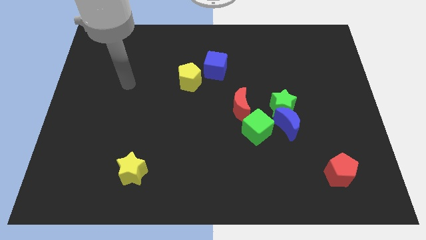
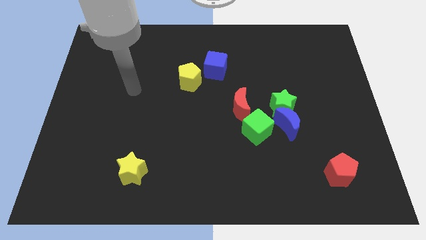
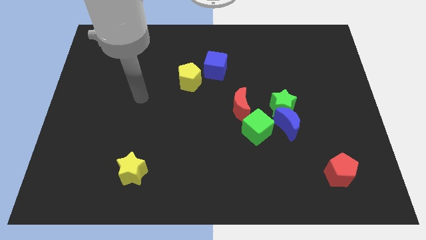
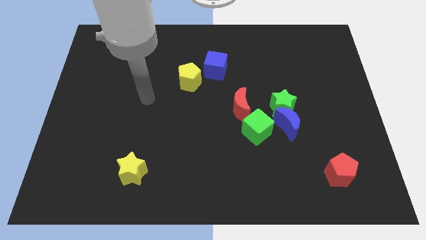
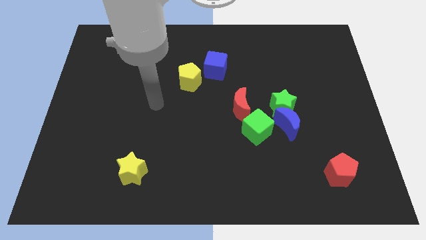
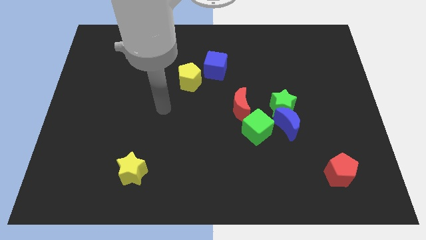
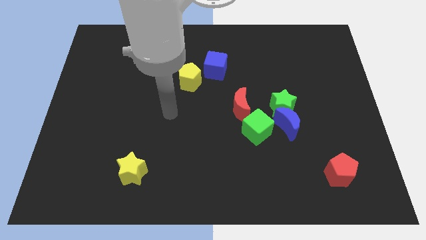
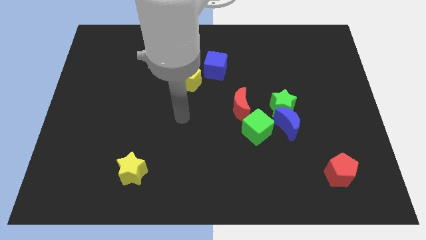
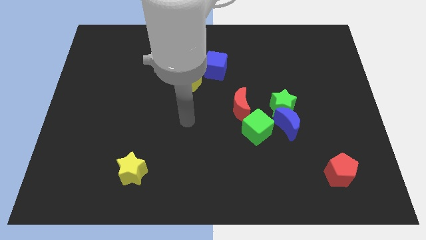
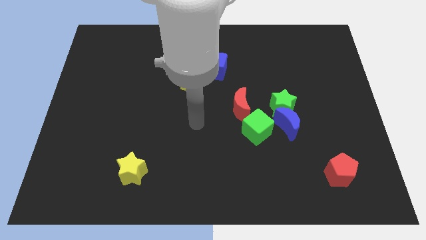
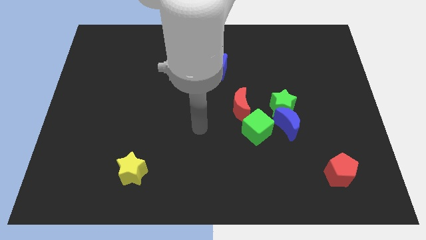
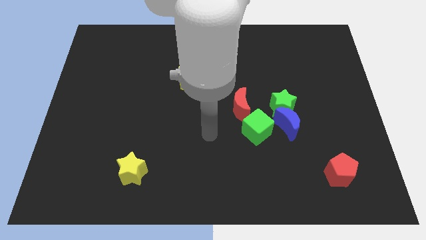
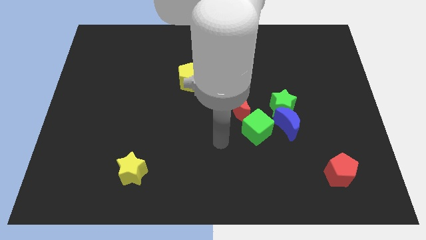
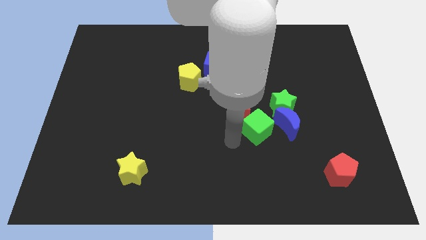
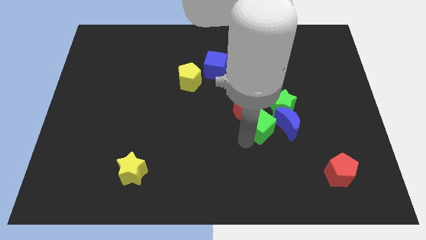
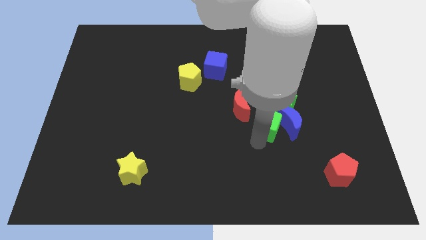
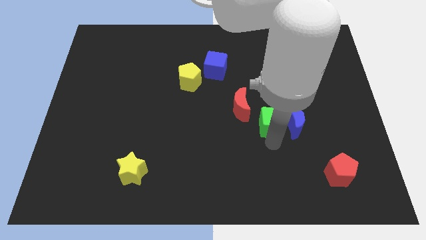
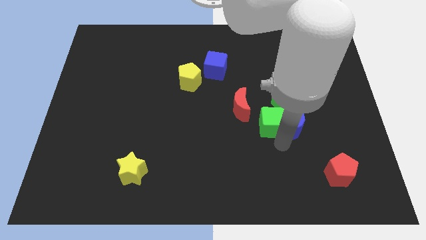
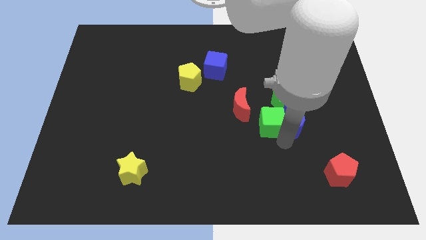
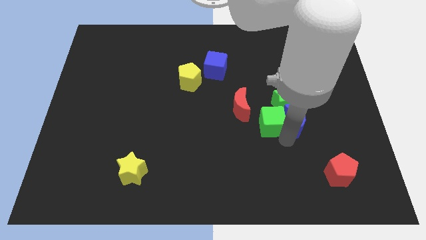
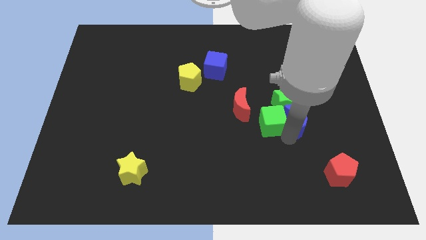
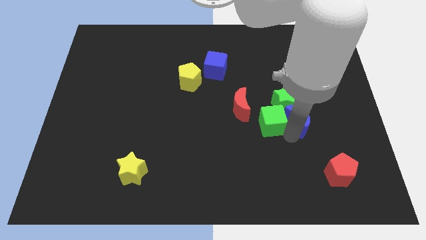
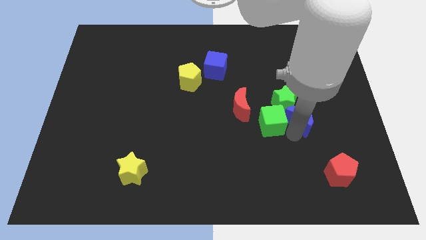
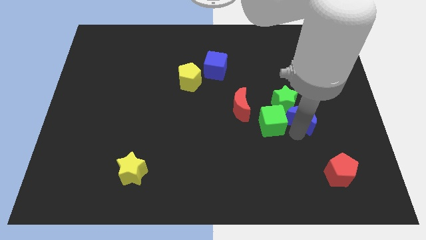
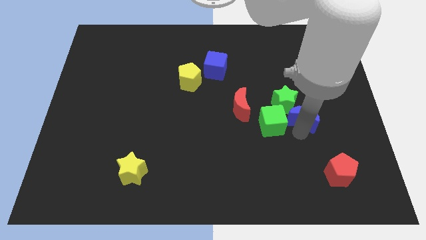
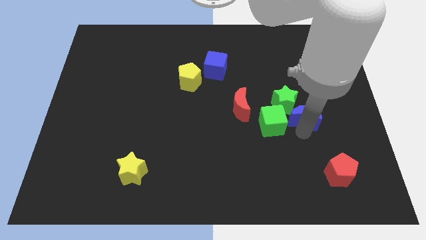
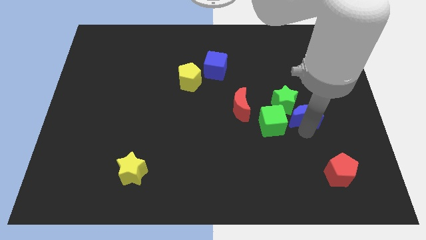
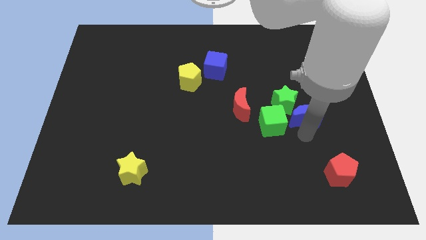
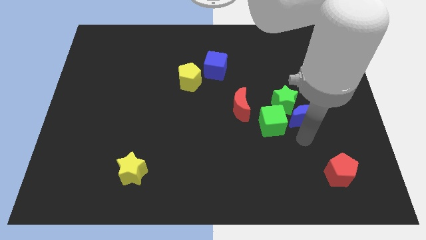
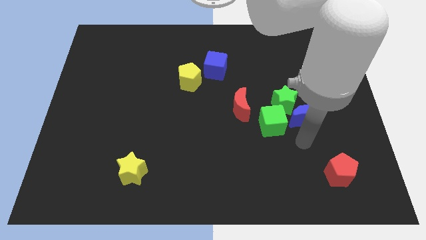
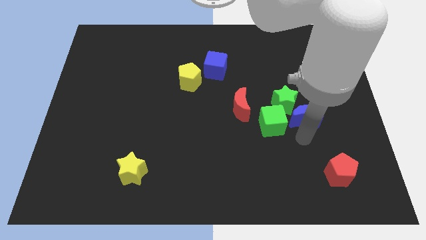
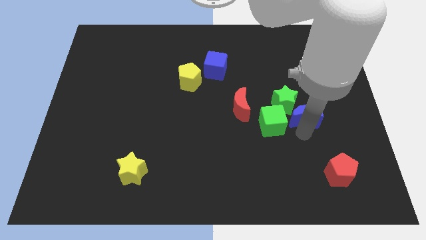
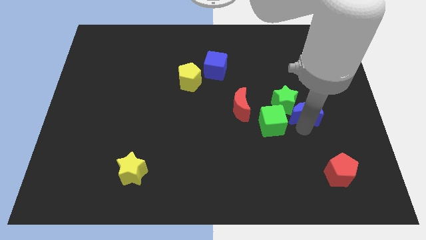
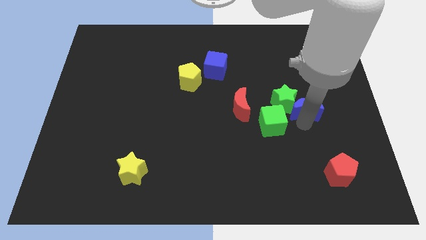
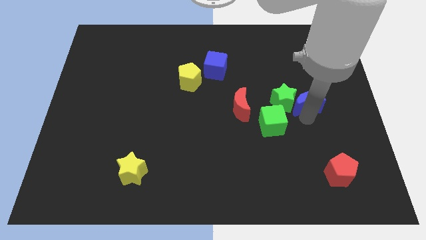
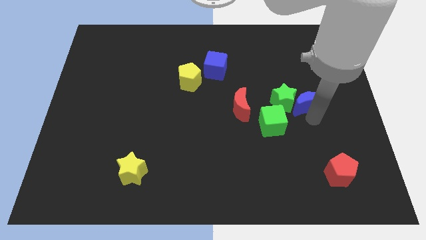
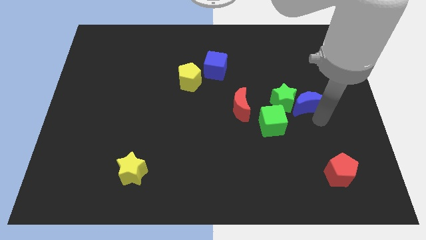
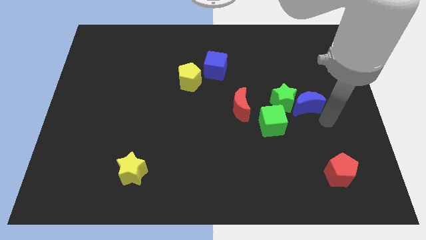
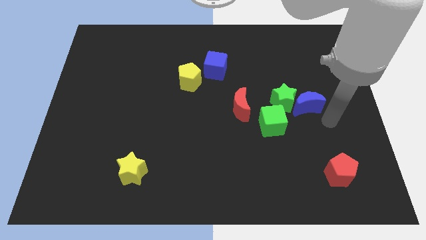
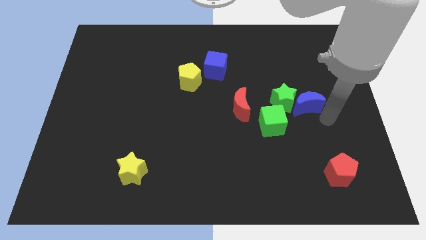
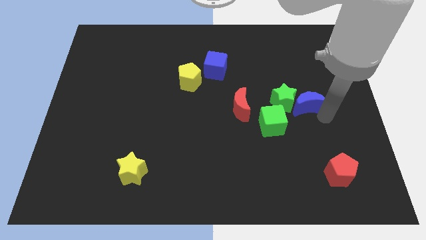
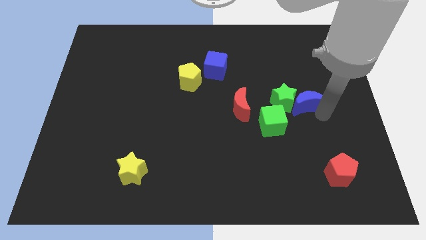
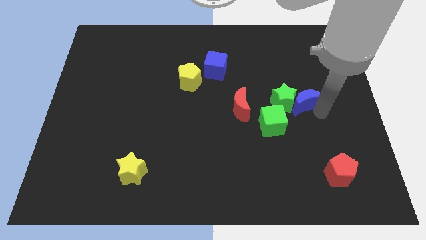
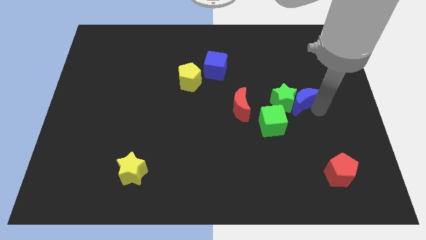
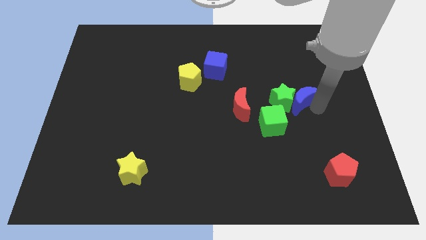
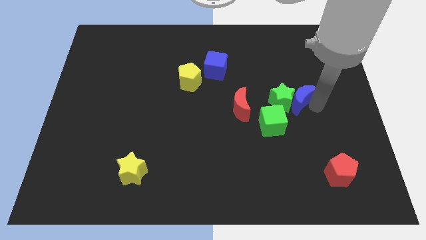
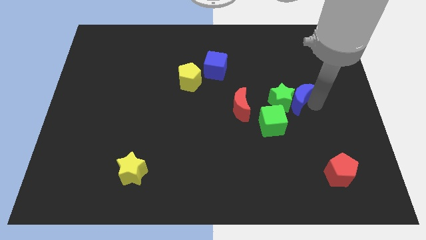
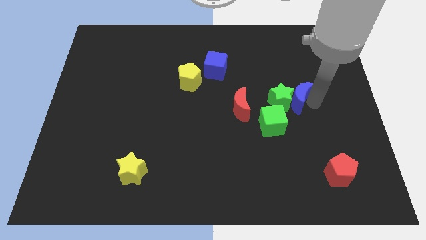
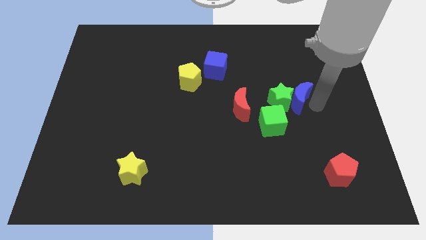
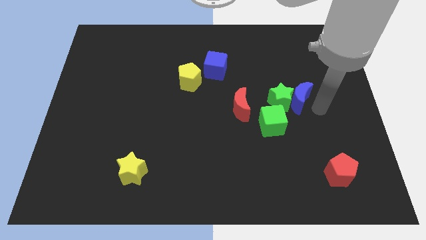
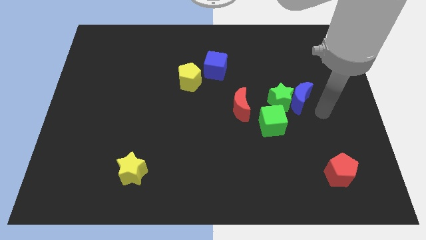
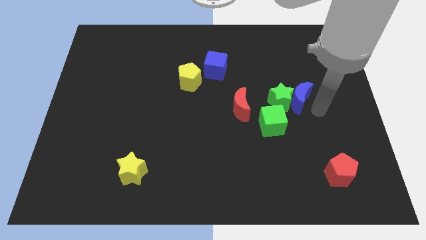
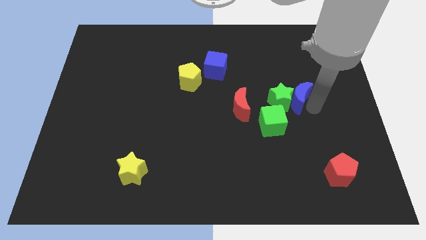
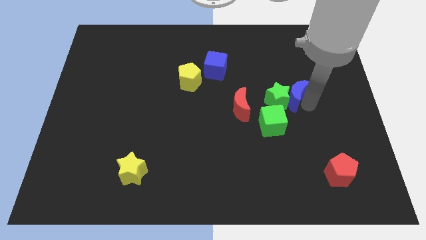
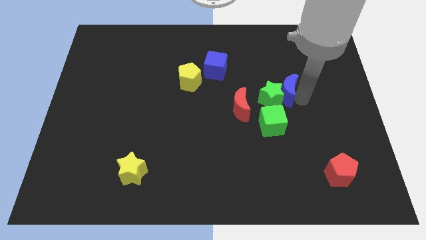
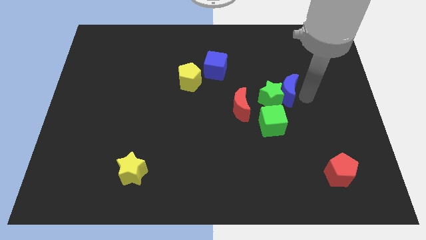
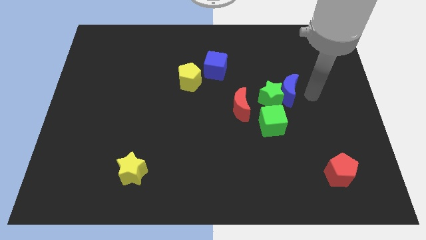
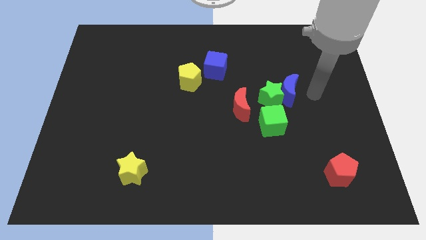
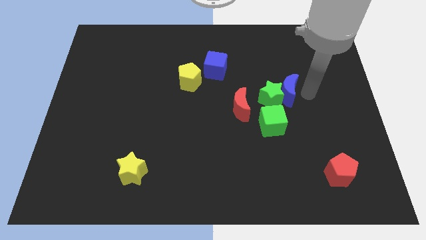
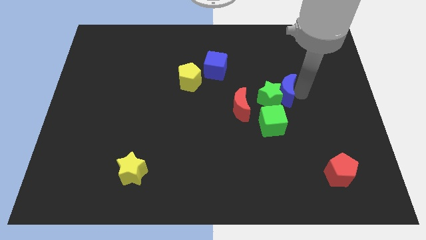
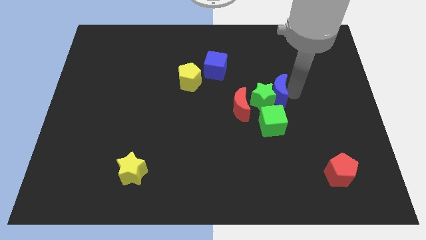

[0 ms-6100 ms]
put the blue moon to the top right side of the red moon

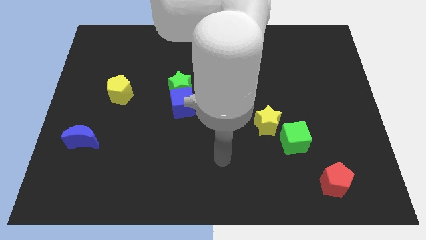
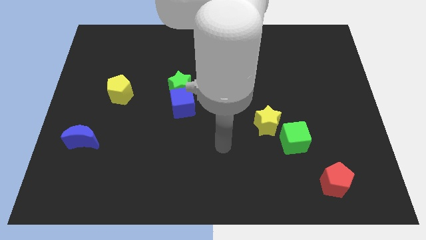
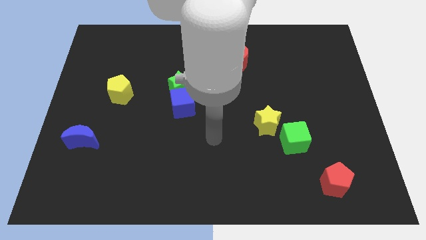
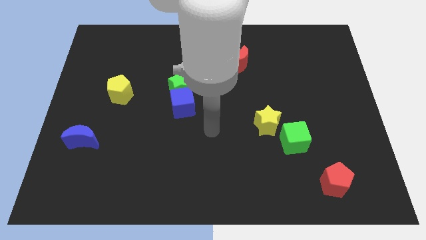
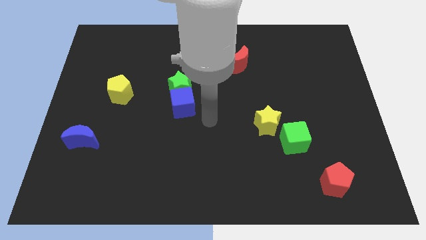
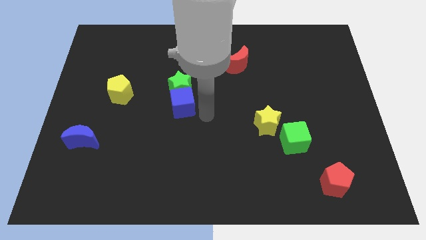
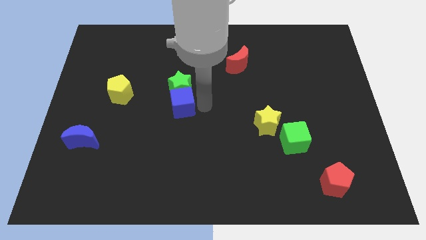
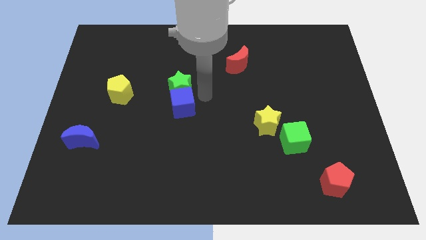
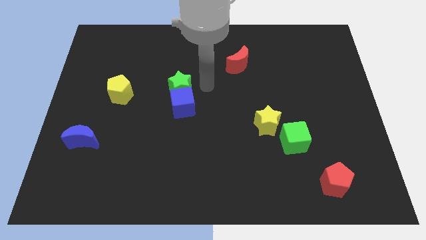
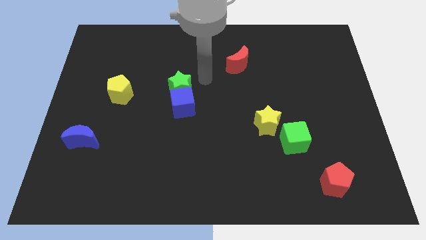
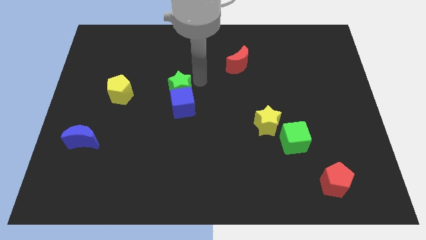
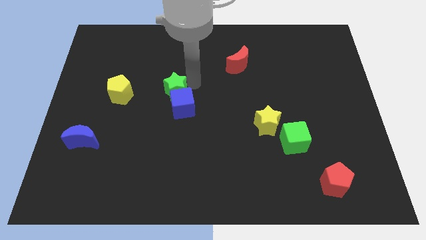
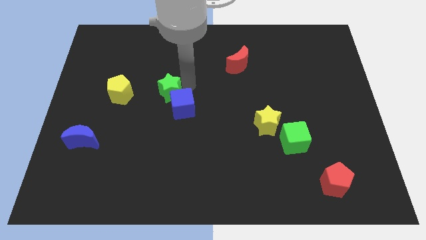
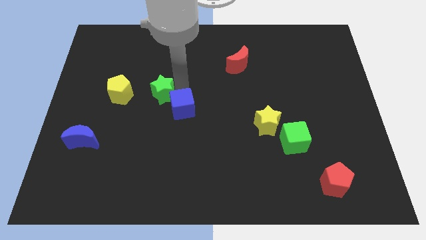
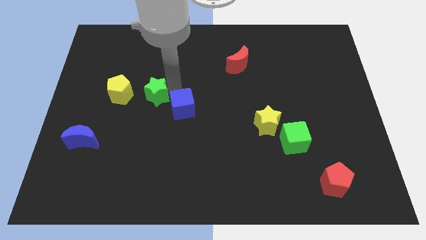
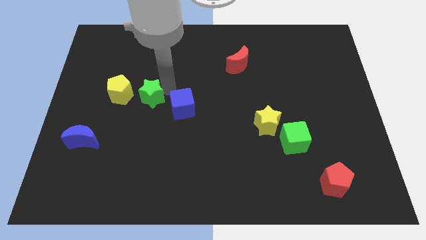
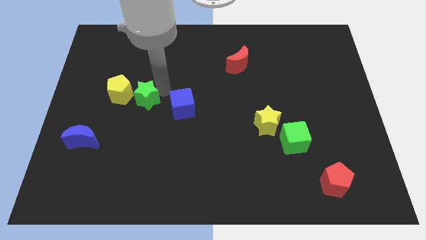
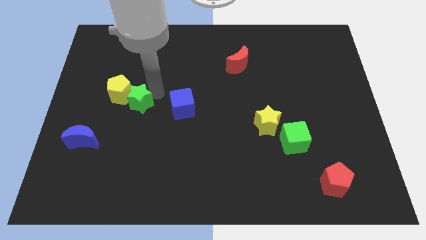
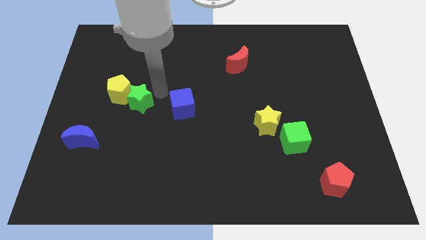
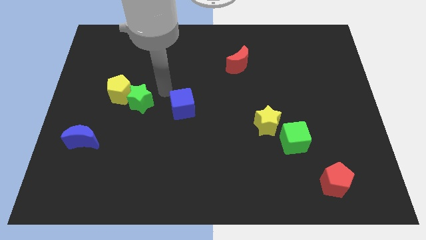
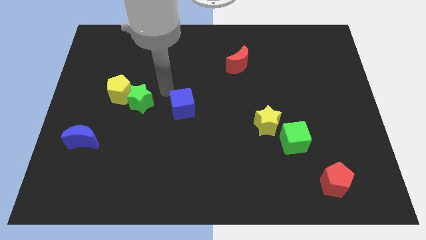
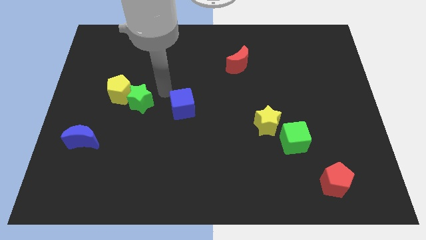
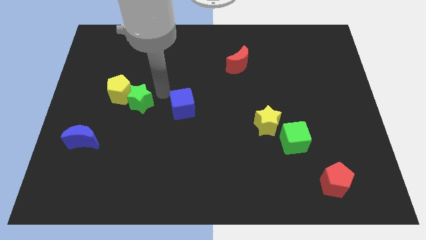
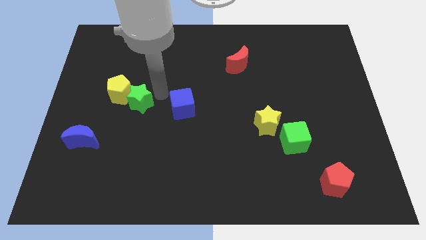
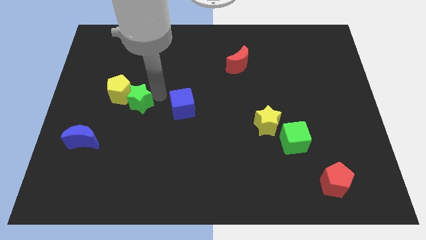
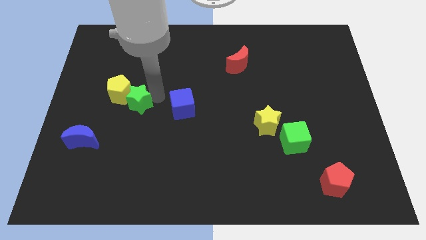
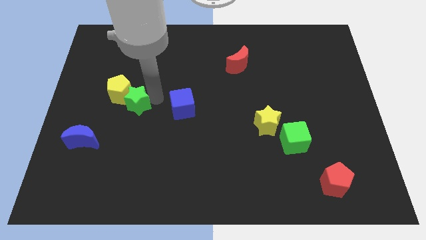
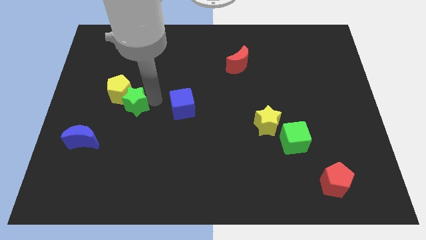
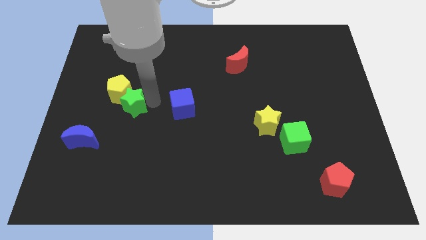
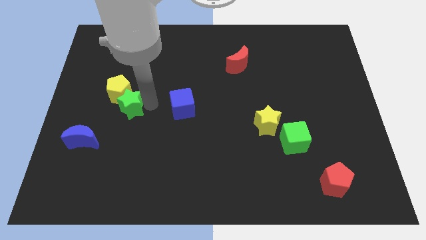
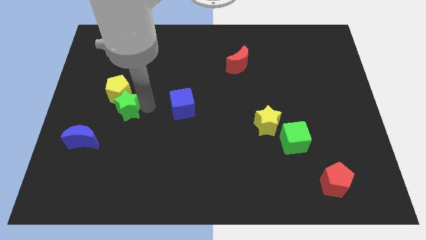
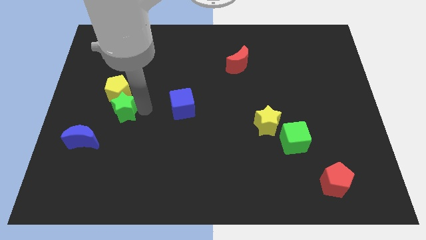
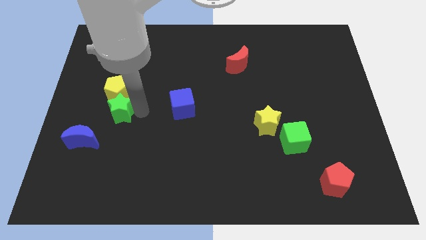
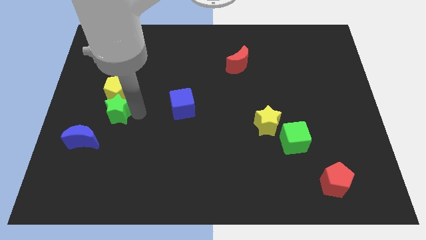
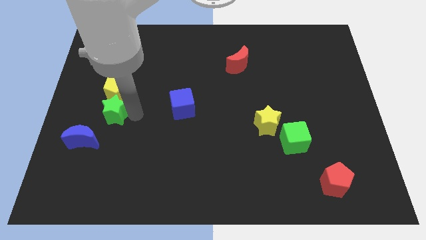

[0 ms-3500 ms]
push the green star to the bottom left of the yellow pentagon
